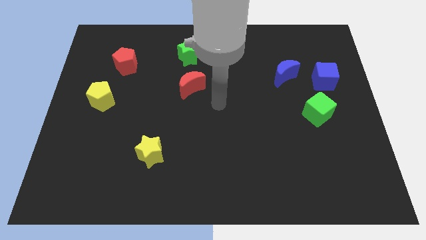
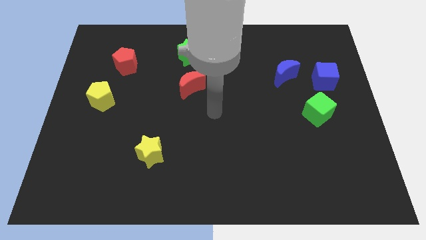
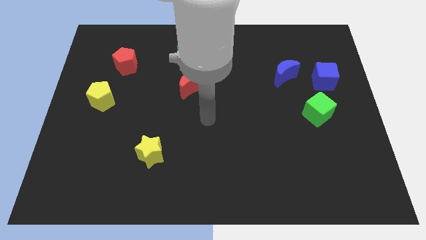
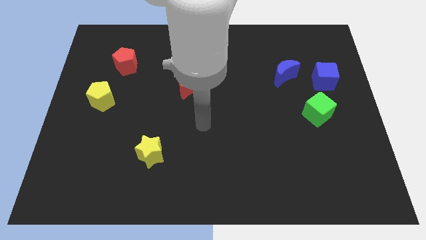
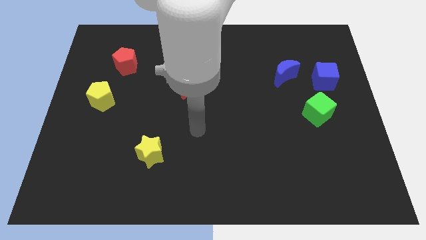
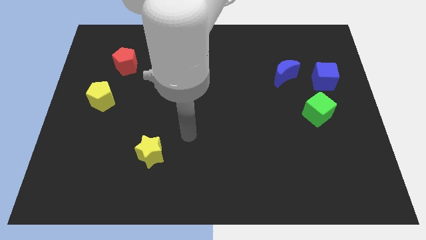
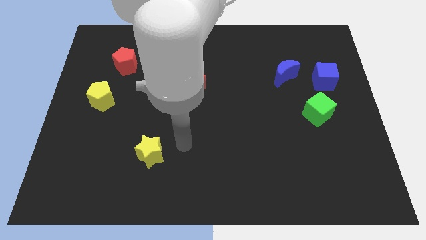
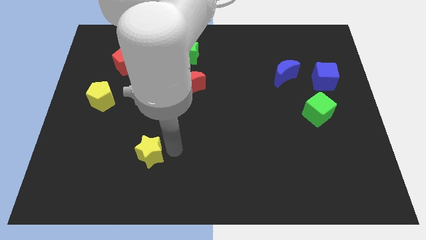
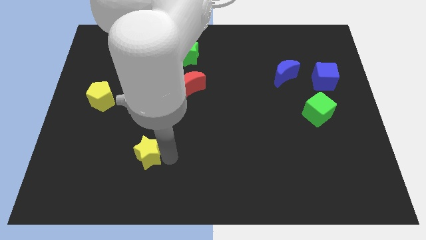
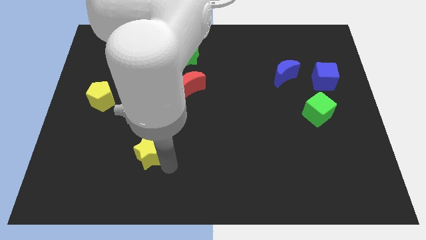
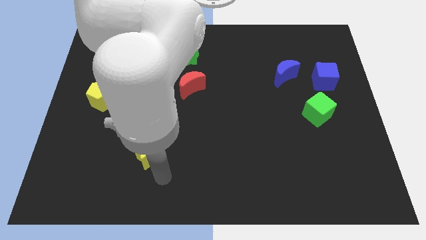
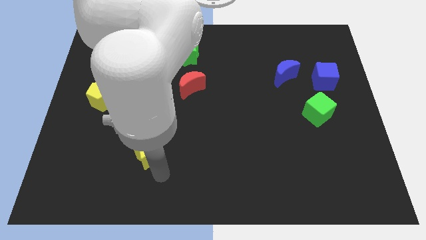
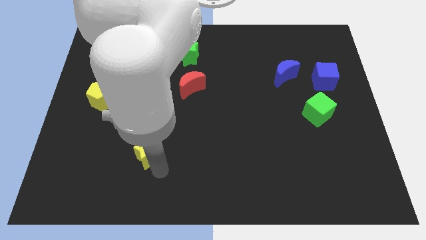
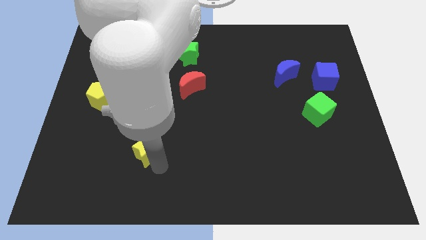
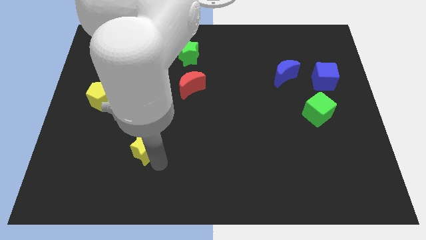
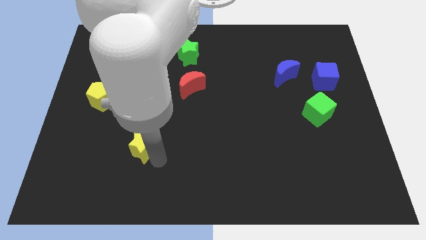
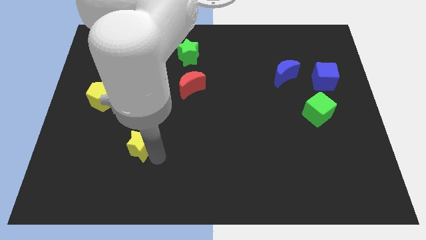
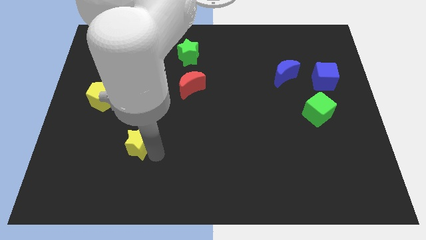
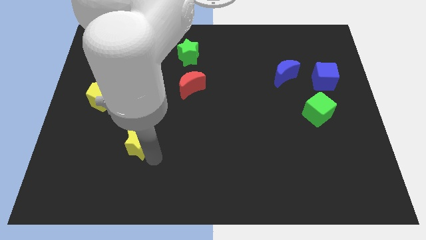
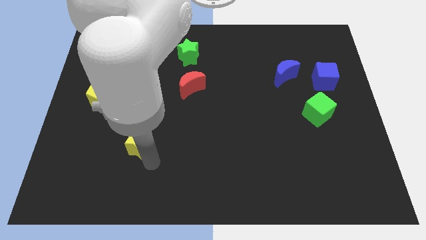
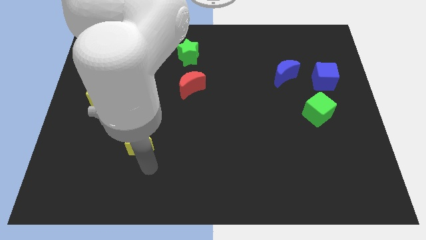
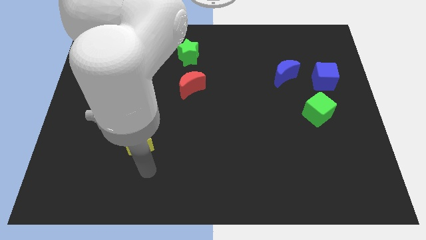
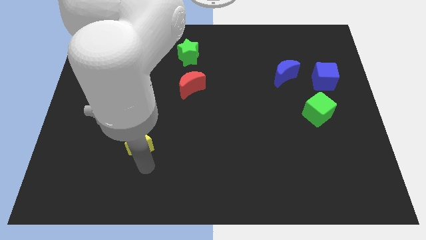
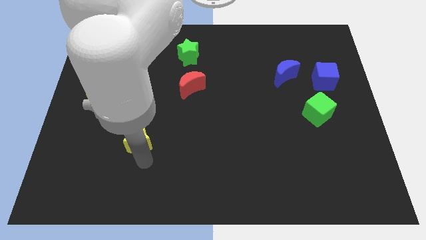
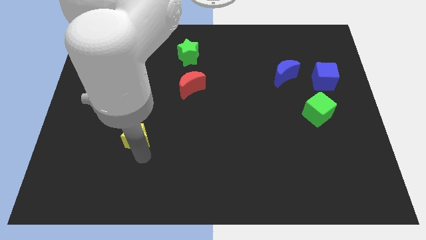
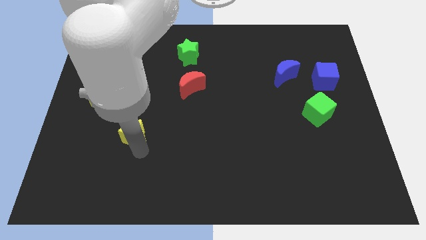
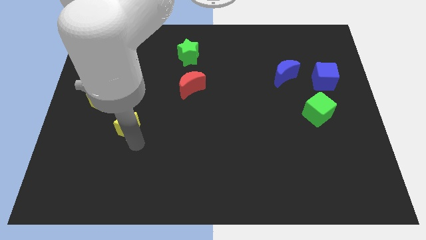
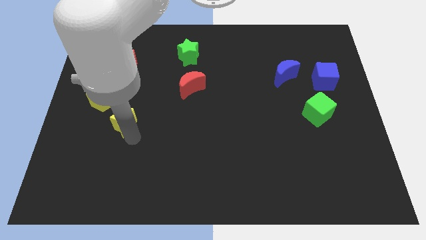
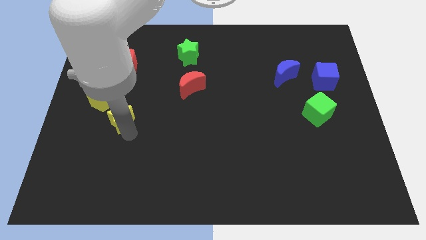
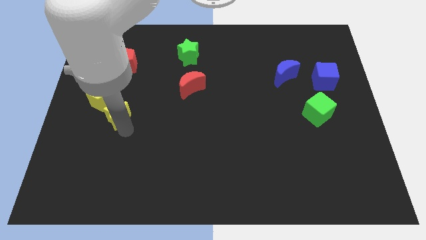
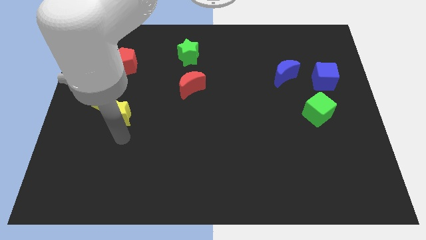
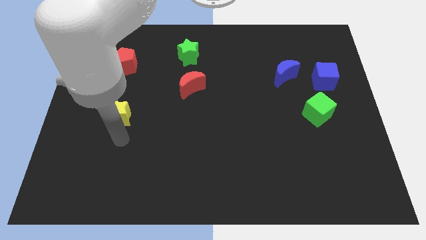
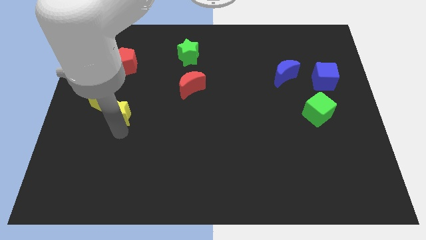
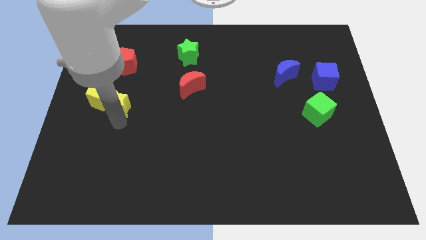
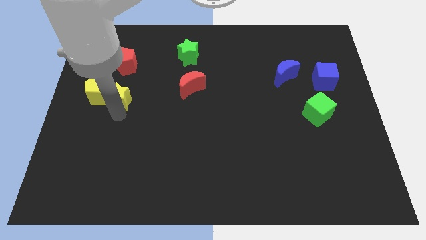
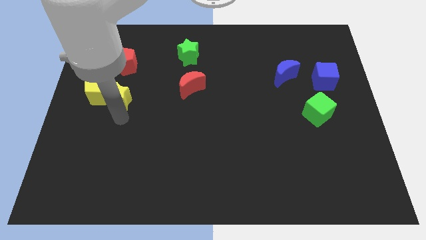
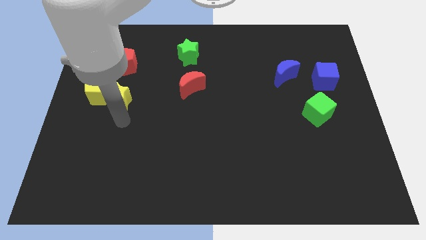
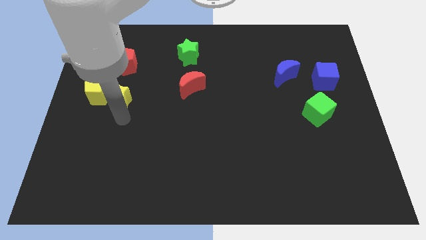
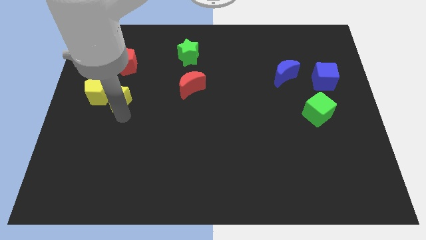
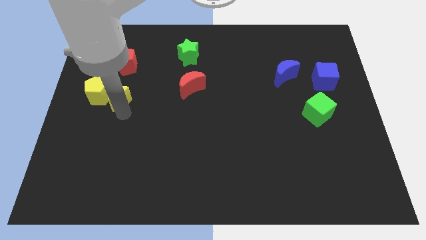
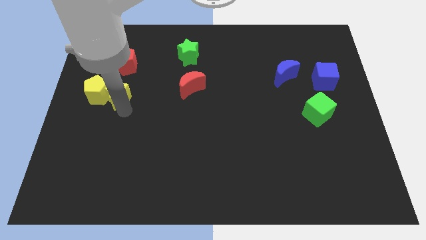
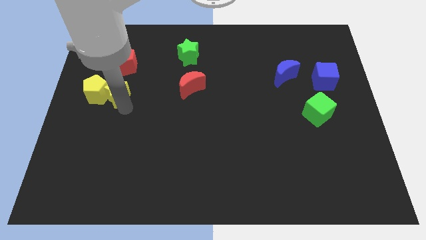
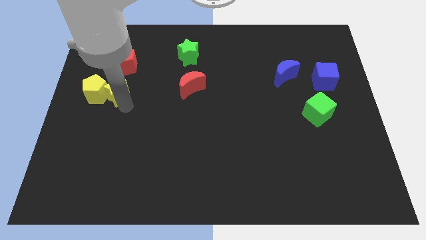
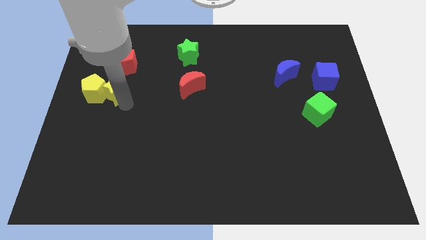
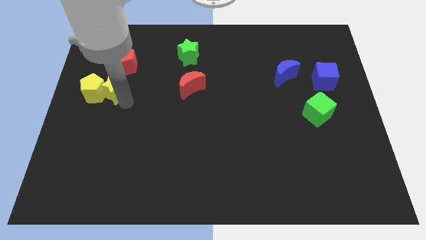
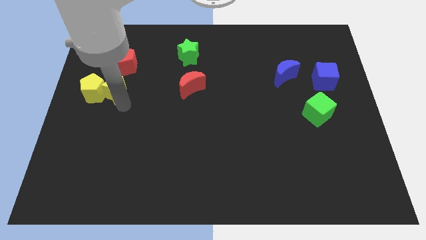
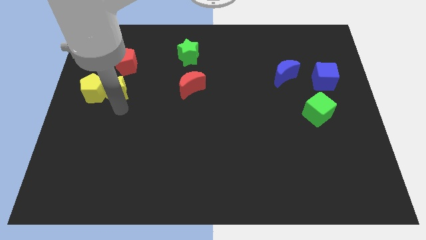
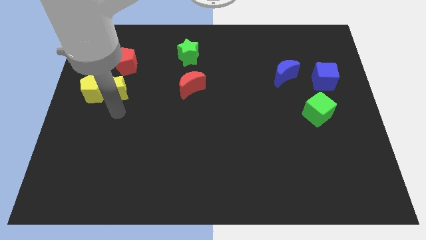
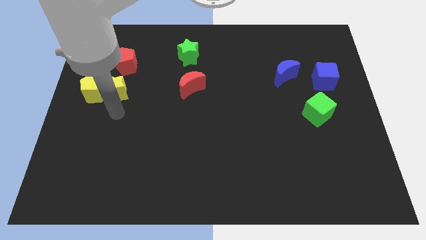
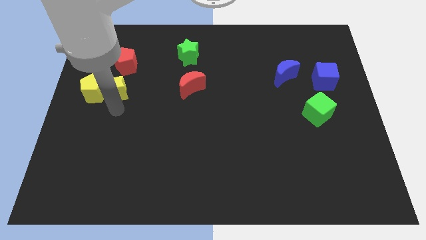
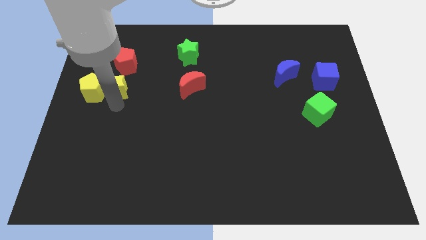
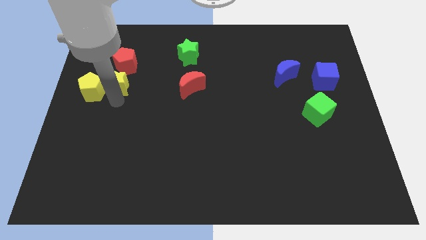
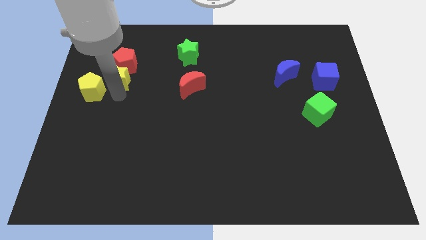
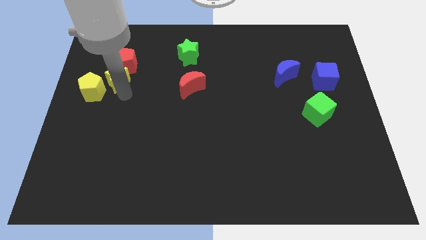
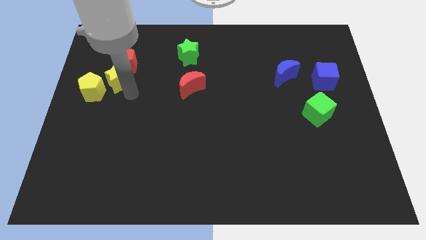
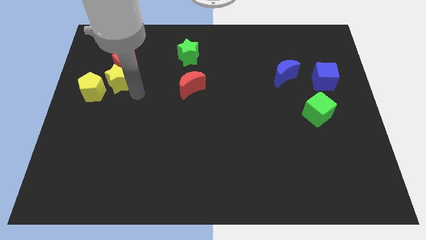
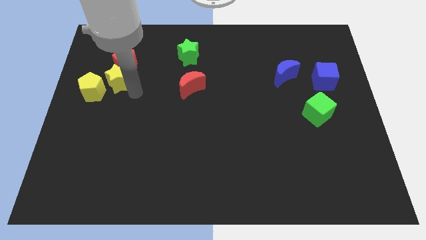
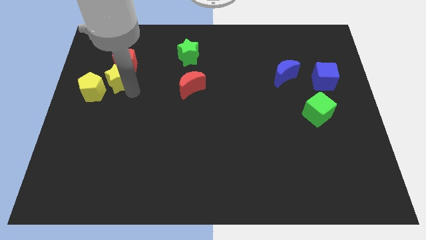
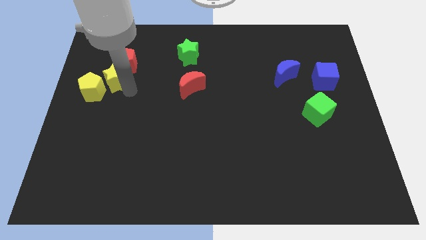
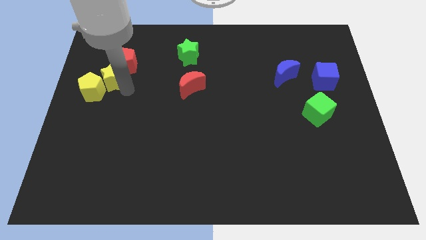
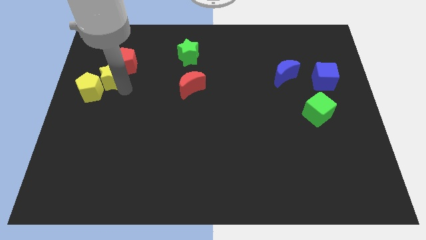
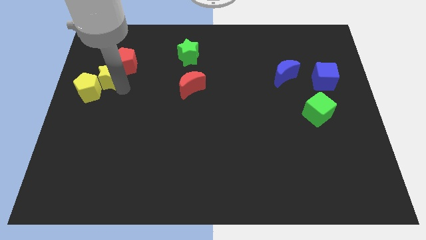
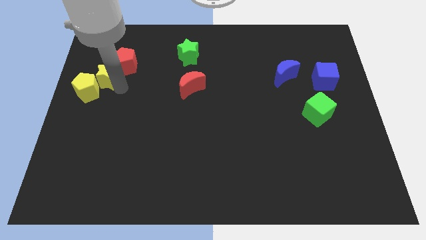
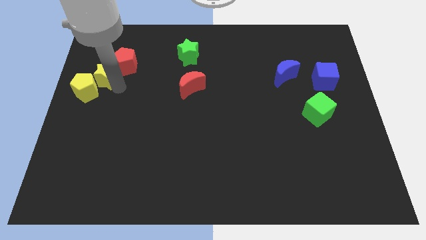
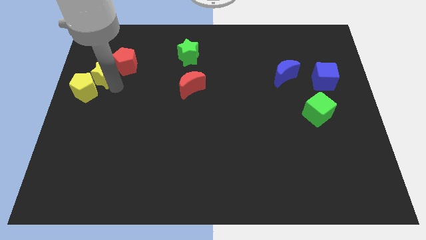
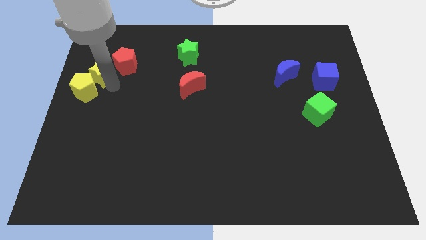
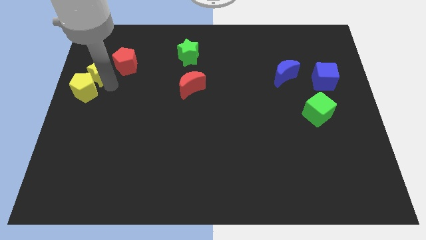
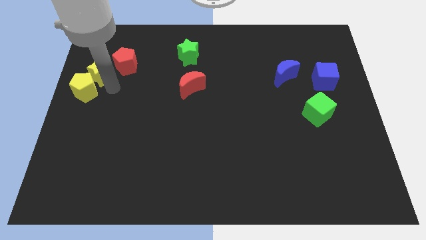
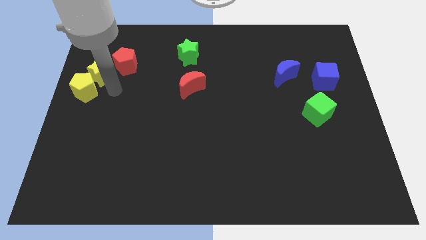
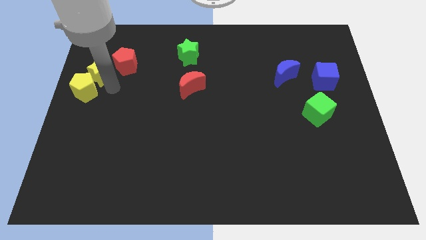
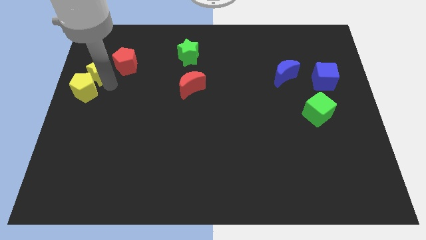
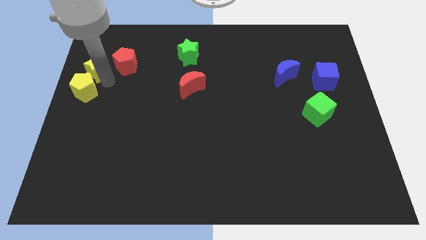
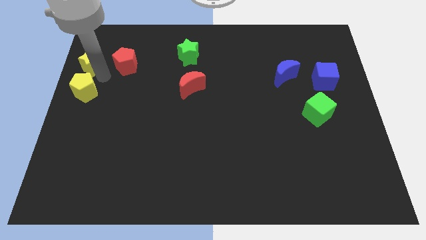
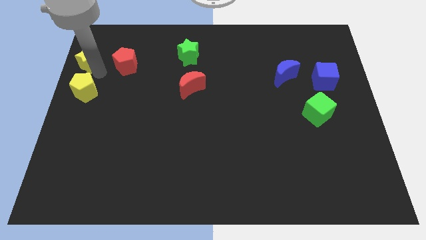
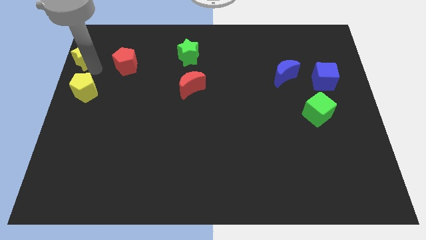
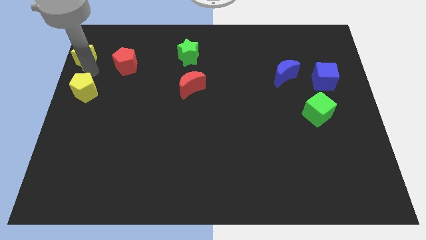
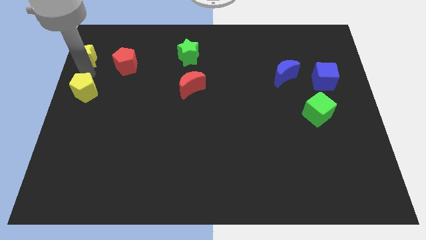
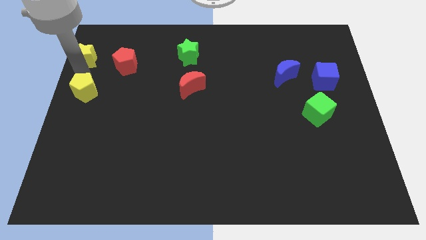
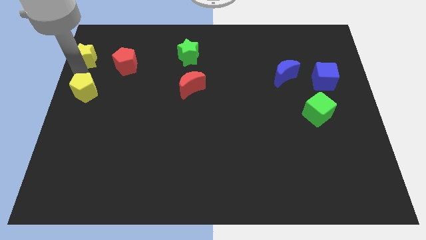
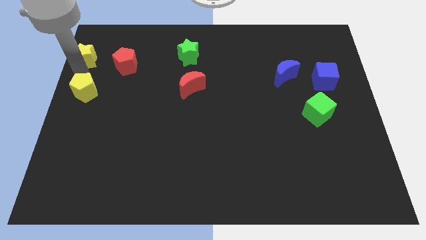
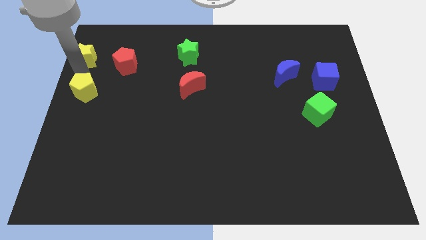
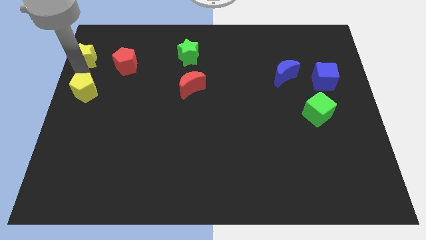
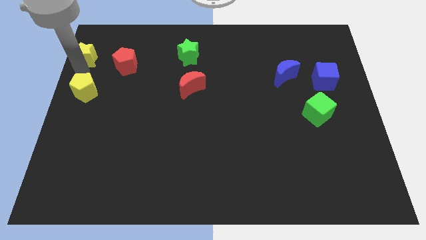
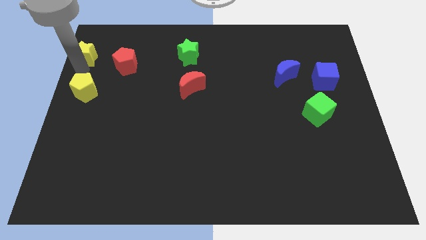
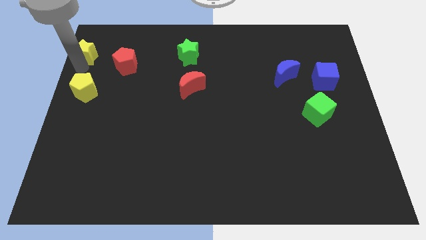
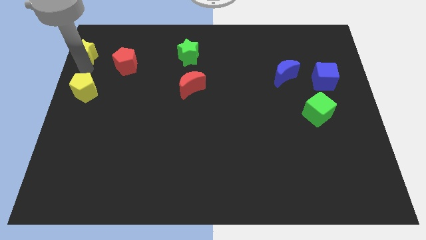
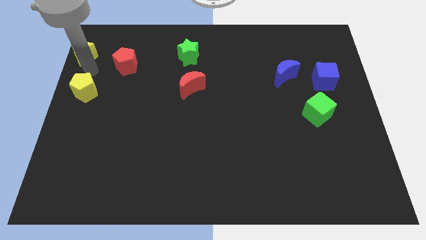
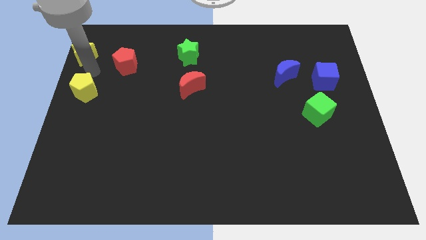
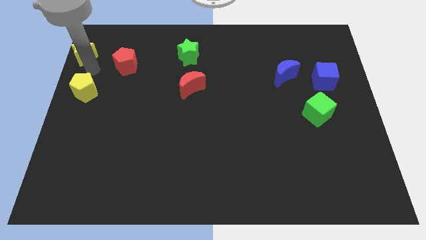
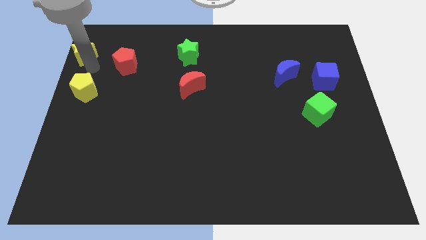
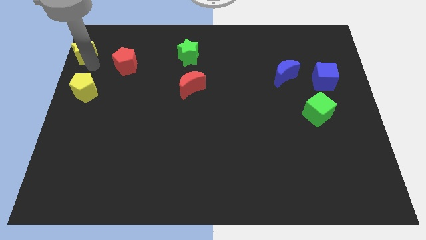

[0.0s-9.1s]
push the yellow star to the top left of the board
